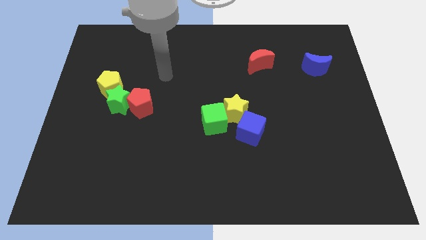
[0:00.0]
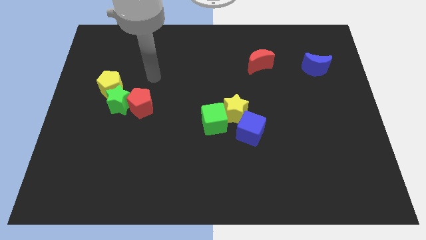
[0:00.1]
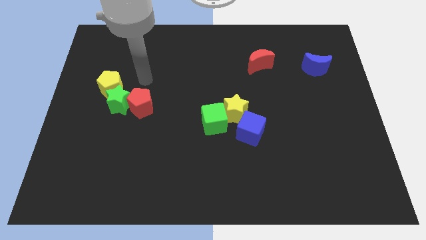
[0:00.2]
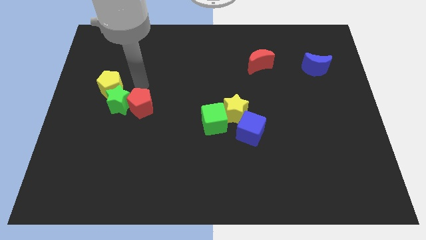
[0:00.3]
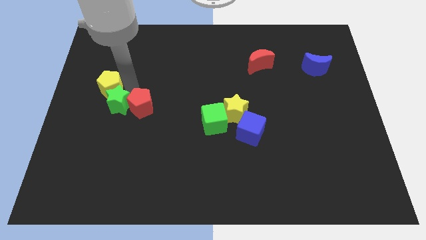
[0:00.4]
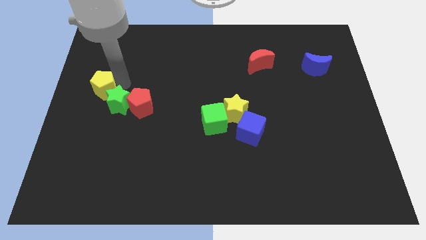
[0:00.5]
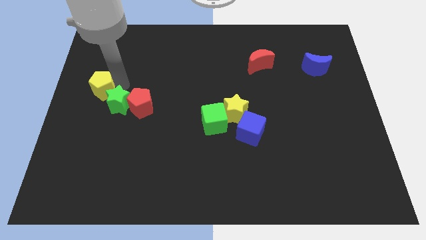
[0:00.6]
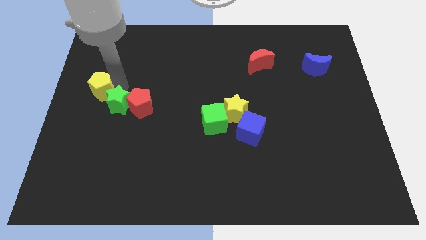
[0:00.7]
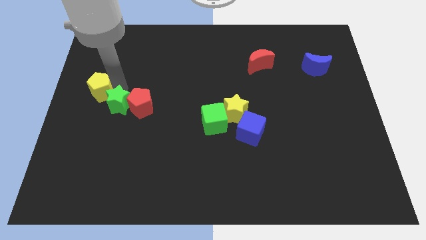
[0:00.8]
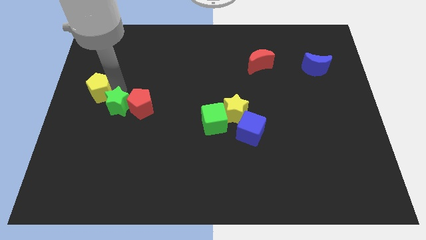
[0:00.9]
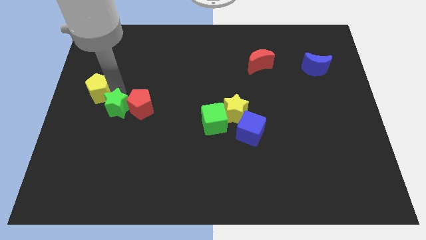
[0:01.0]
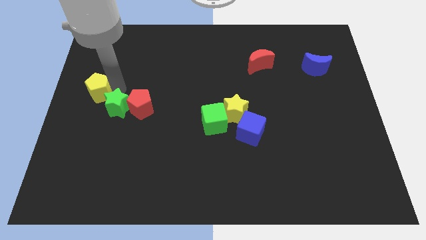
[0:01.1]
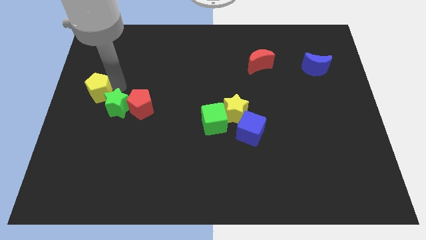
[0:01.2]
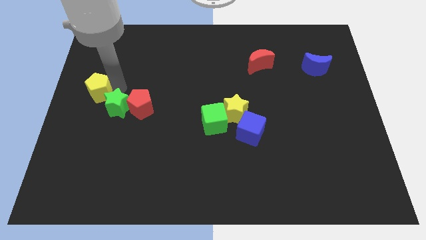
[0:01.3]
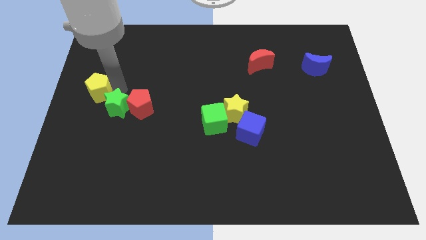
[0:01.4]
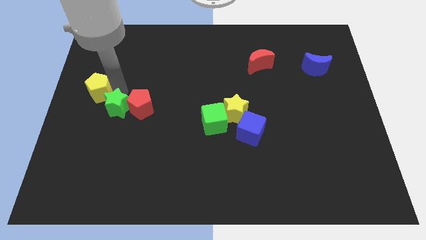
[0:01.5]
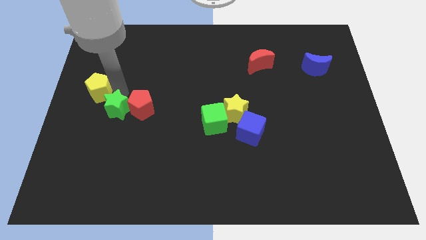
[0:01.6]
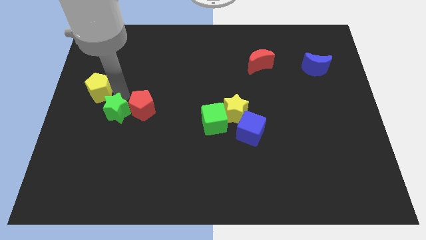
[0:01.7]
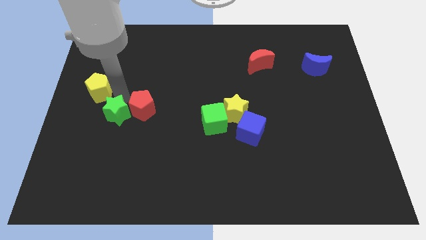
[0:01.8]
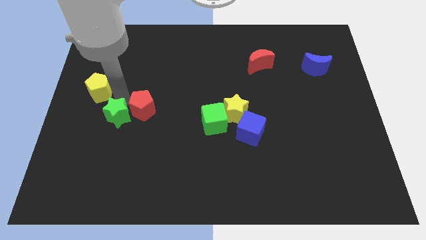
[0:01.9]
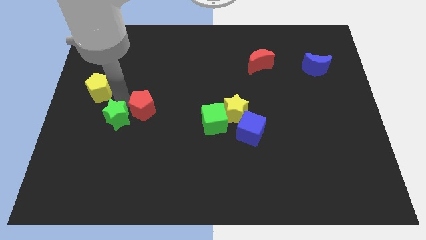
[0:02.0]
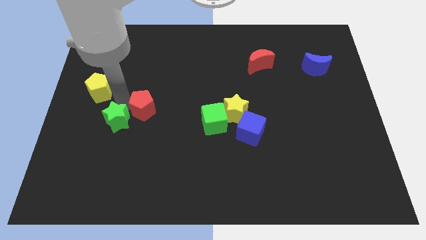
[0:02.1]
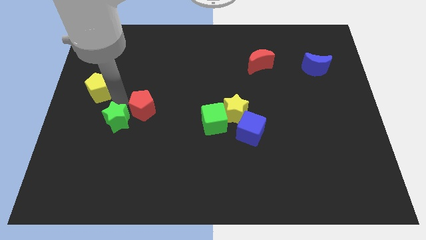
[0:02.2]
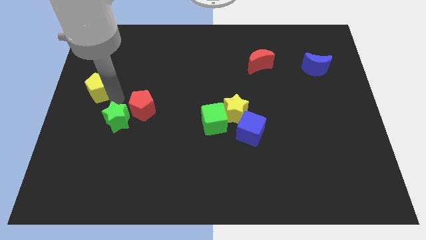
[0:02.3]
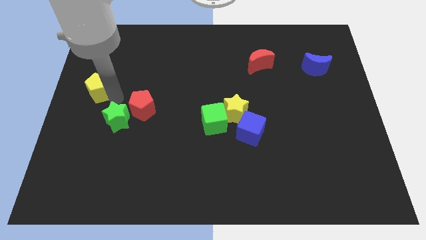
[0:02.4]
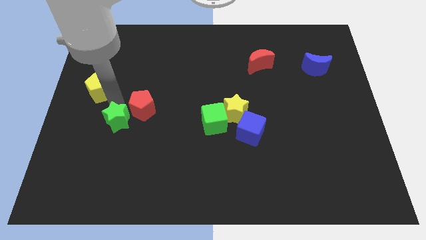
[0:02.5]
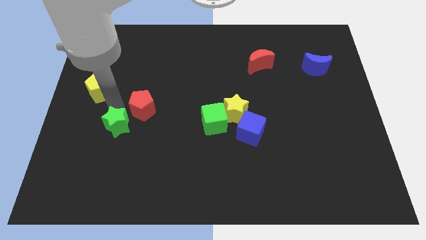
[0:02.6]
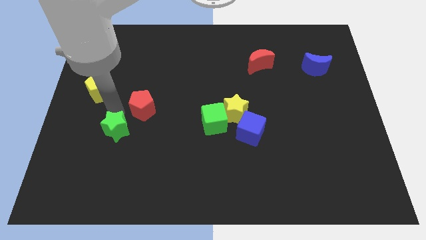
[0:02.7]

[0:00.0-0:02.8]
slightly slide the green star down

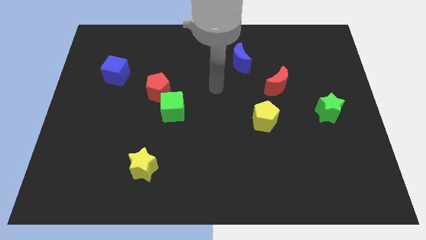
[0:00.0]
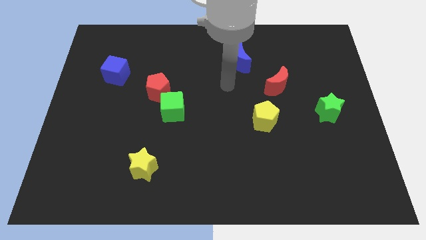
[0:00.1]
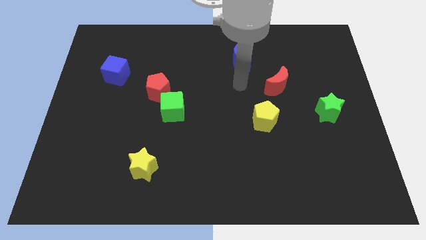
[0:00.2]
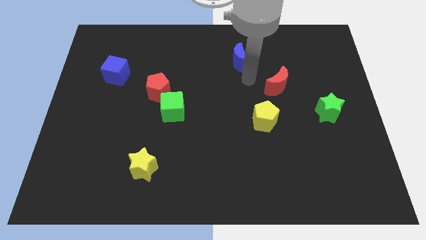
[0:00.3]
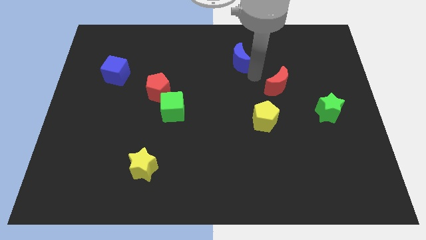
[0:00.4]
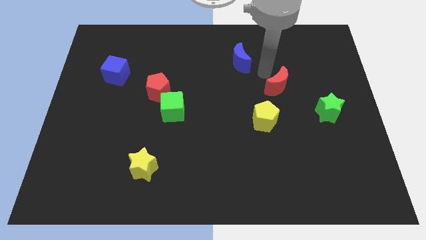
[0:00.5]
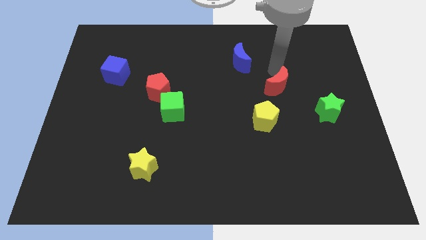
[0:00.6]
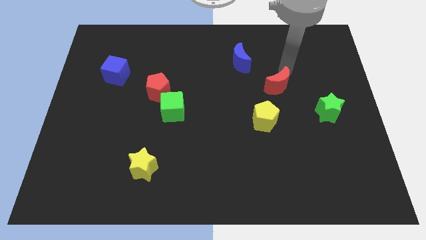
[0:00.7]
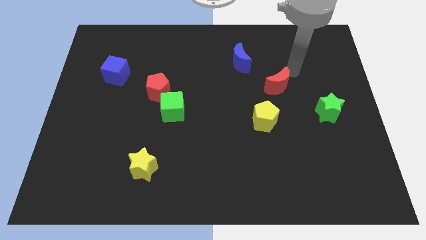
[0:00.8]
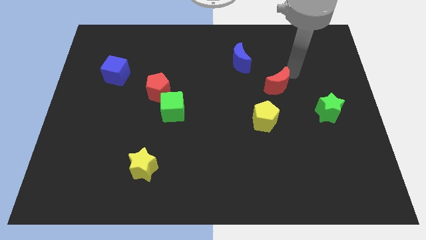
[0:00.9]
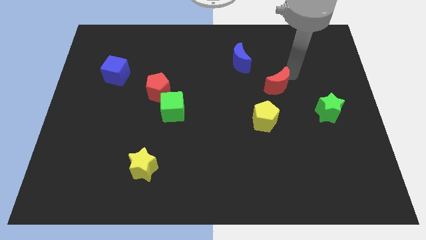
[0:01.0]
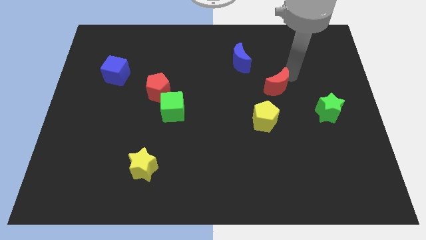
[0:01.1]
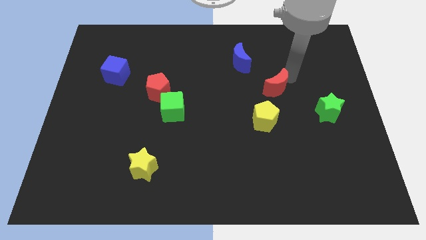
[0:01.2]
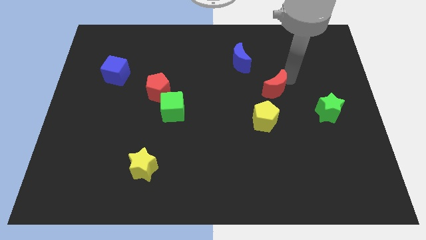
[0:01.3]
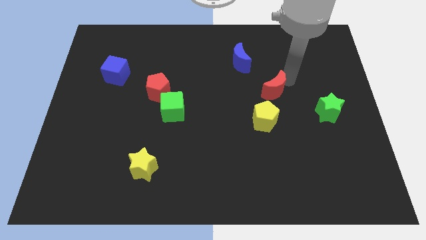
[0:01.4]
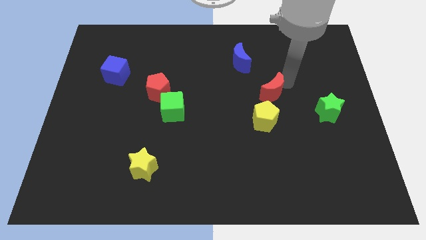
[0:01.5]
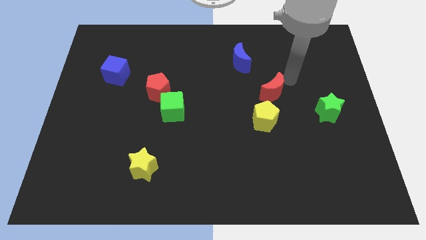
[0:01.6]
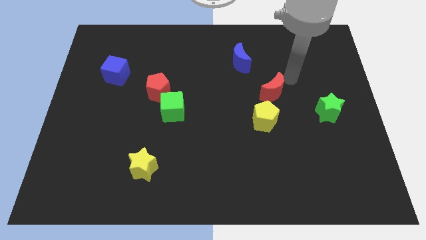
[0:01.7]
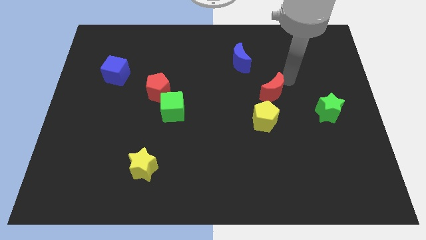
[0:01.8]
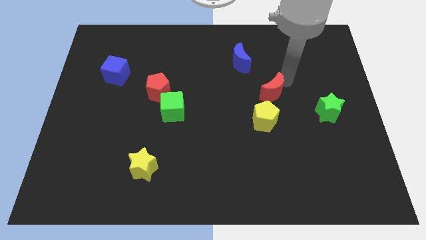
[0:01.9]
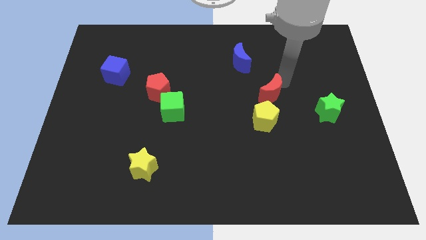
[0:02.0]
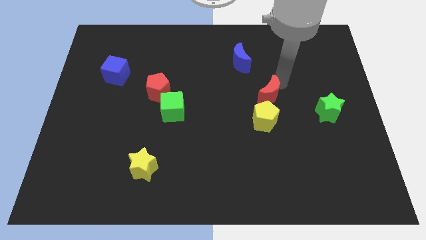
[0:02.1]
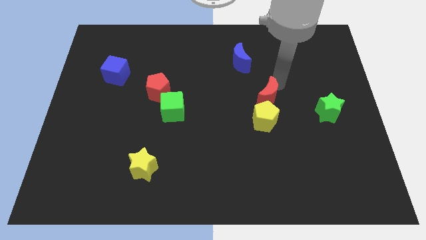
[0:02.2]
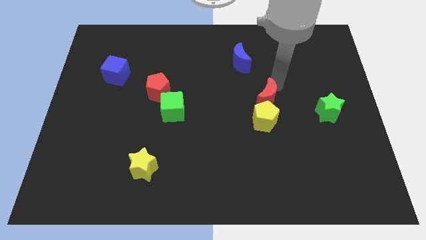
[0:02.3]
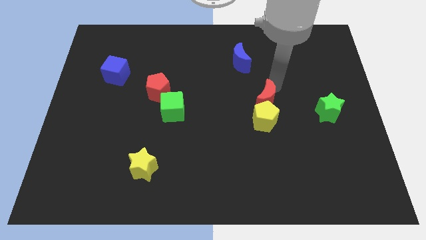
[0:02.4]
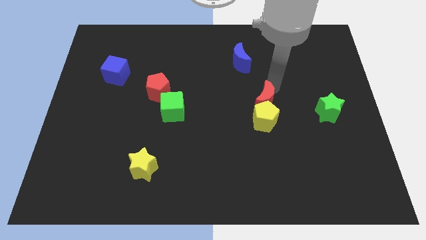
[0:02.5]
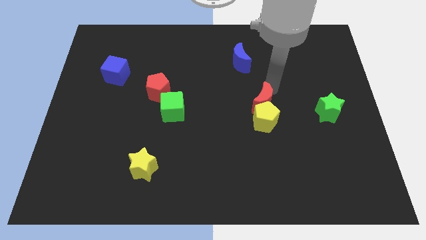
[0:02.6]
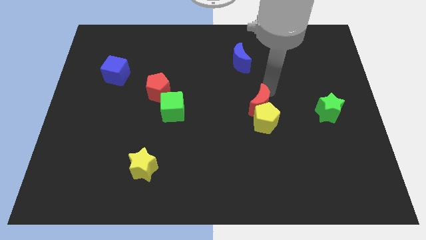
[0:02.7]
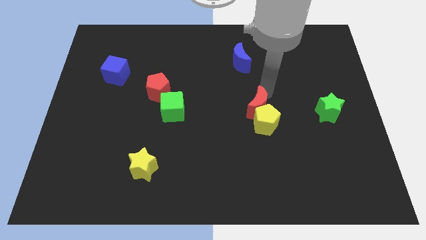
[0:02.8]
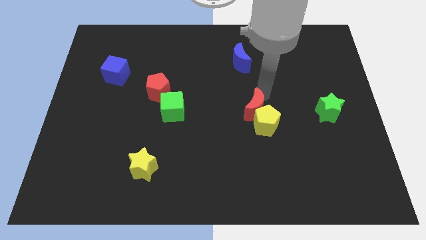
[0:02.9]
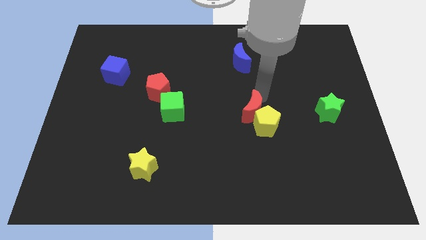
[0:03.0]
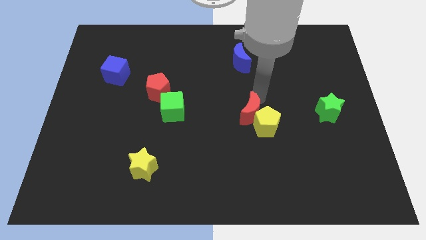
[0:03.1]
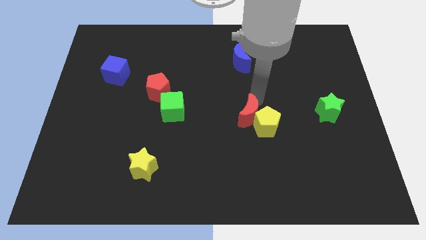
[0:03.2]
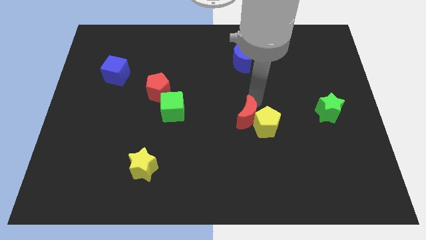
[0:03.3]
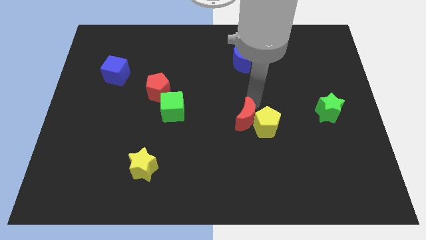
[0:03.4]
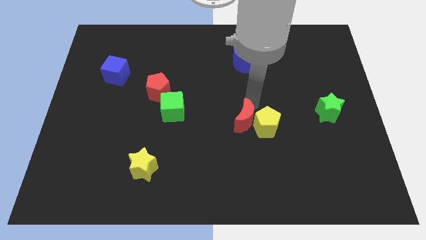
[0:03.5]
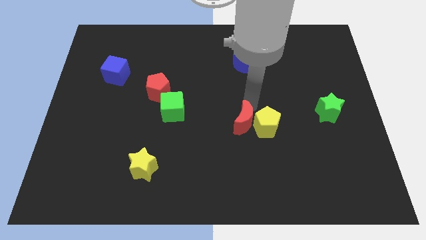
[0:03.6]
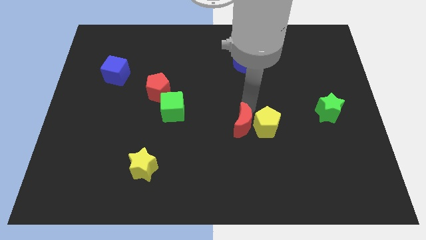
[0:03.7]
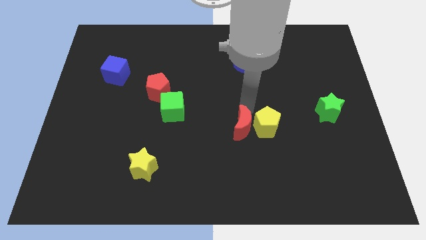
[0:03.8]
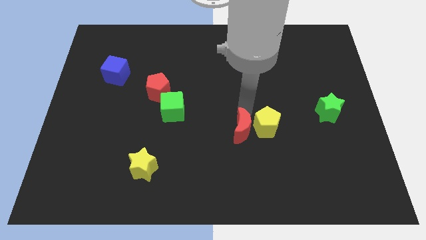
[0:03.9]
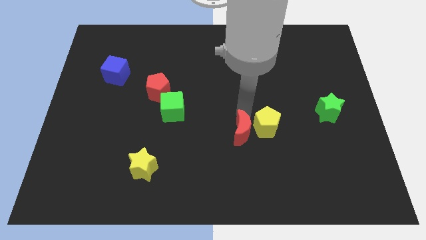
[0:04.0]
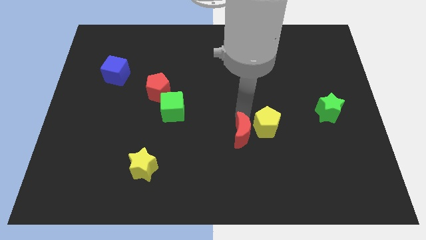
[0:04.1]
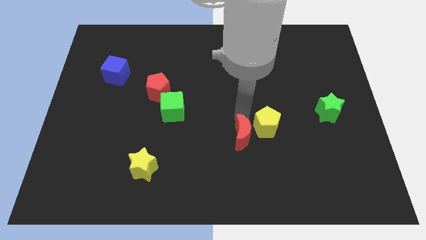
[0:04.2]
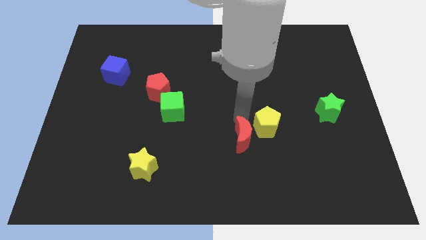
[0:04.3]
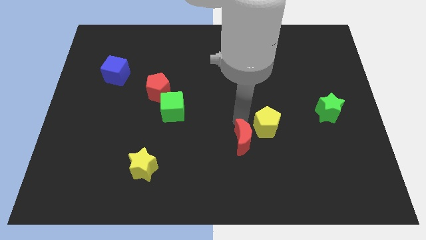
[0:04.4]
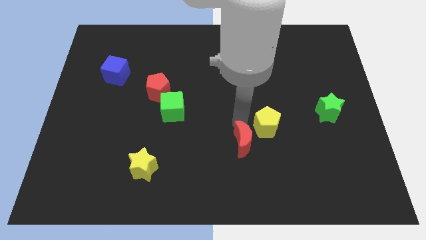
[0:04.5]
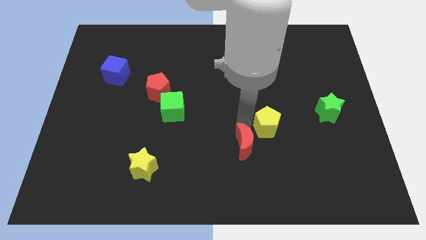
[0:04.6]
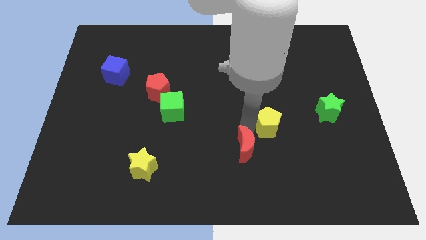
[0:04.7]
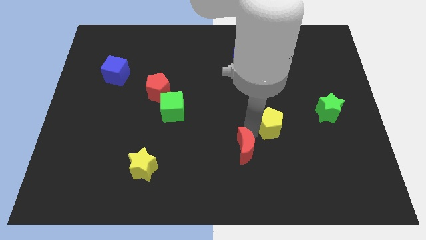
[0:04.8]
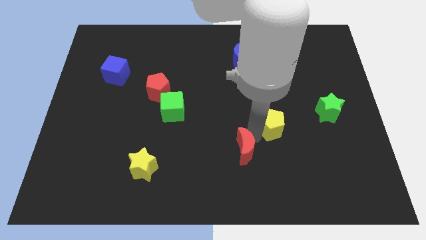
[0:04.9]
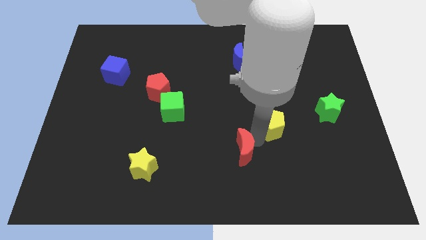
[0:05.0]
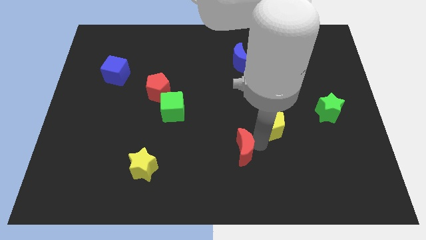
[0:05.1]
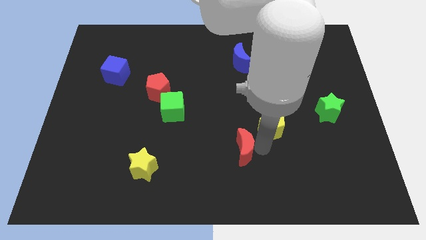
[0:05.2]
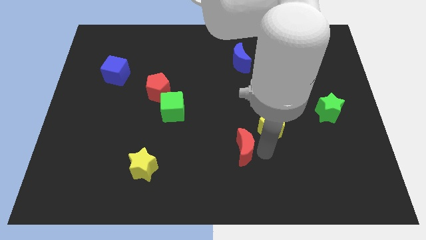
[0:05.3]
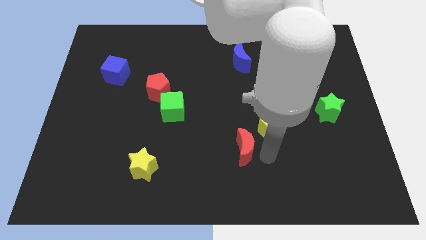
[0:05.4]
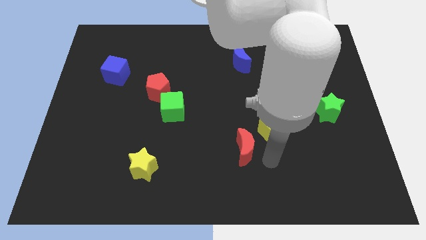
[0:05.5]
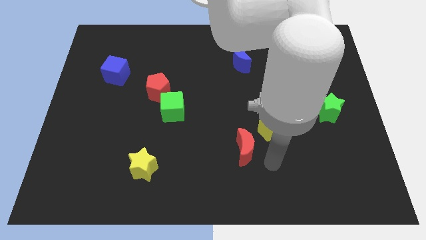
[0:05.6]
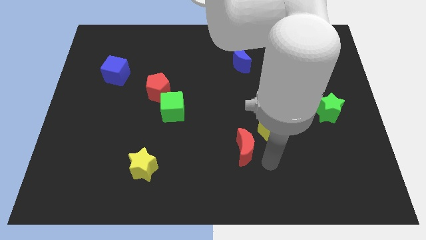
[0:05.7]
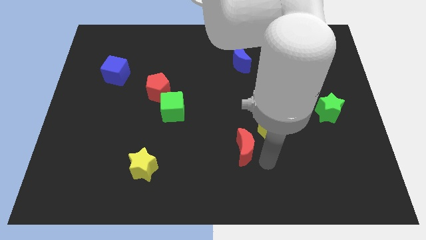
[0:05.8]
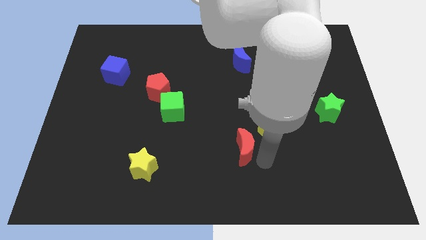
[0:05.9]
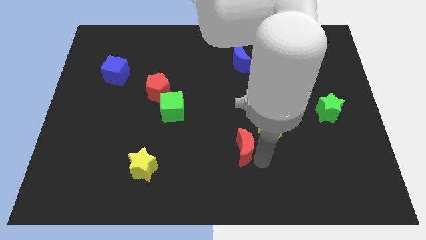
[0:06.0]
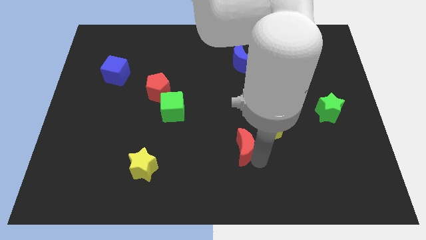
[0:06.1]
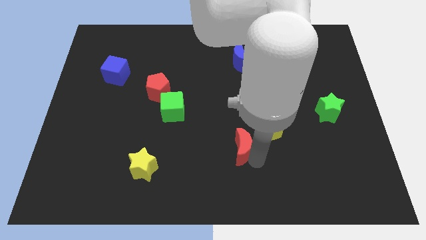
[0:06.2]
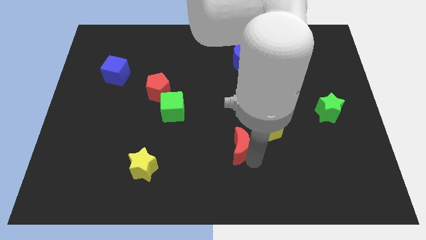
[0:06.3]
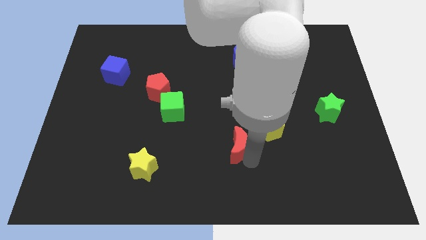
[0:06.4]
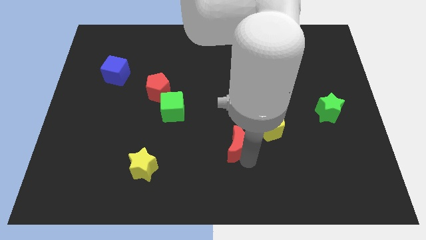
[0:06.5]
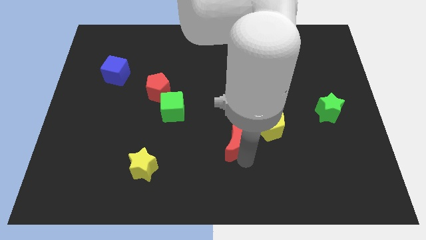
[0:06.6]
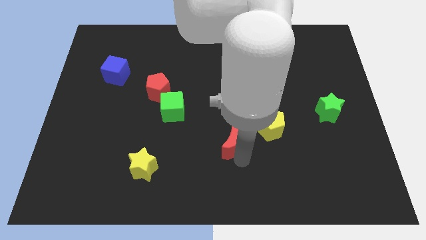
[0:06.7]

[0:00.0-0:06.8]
move the red moon downwards and left diagonally
